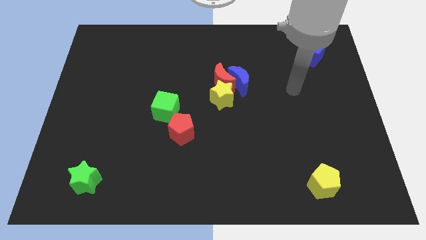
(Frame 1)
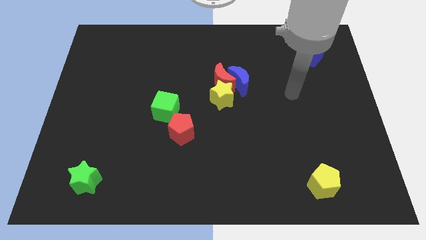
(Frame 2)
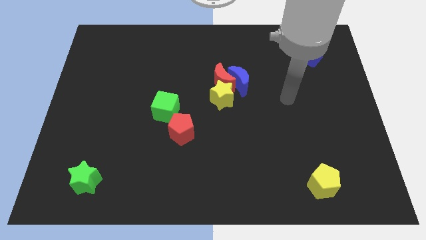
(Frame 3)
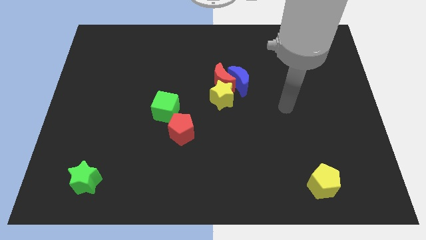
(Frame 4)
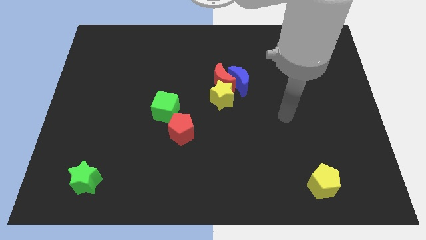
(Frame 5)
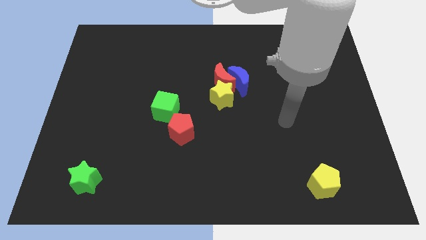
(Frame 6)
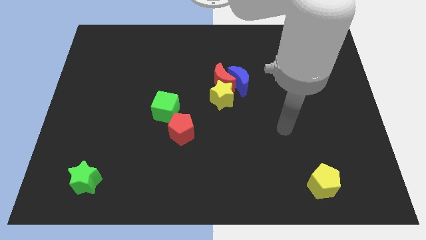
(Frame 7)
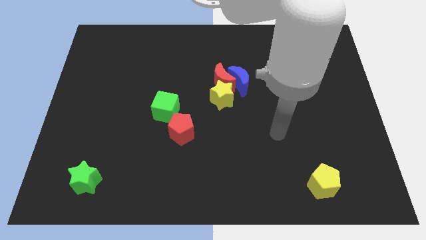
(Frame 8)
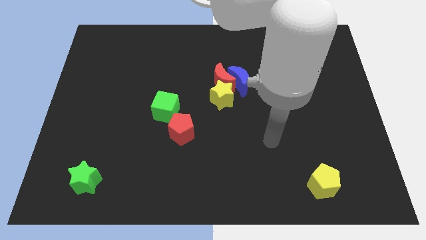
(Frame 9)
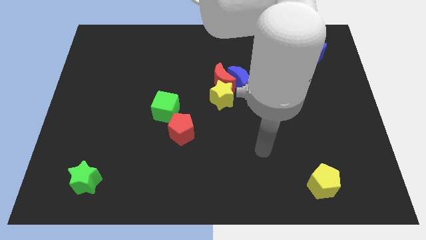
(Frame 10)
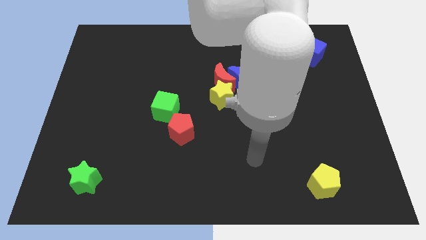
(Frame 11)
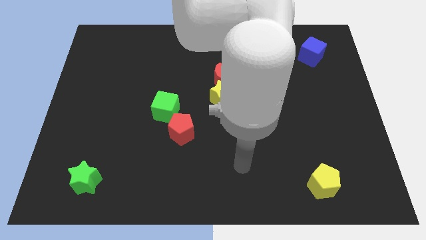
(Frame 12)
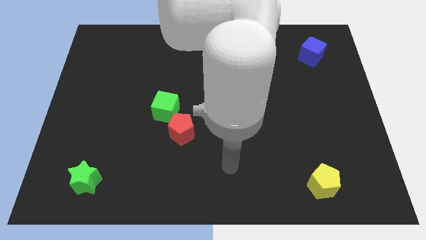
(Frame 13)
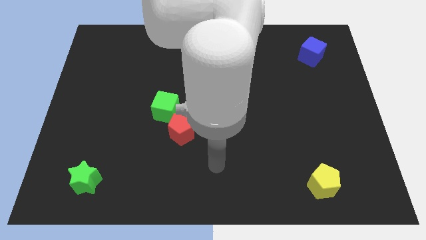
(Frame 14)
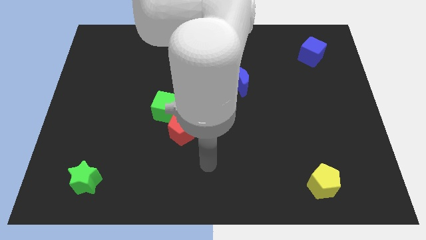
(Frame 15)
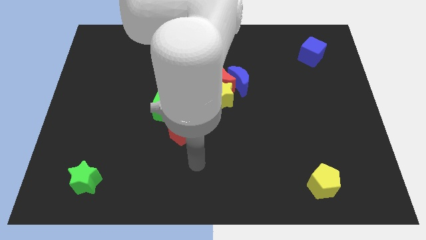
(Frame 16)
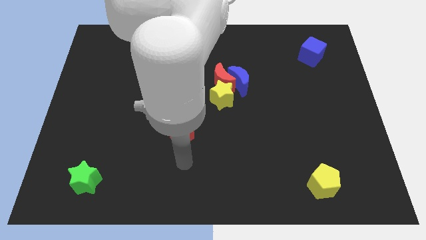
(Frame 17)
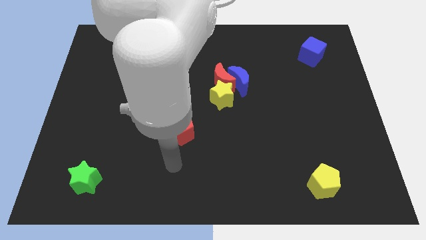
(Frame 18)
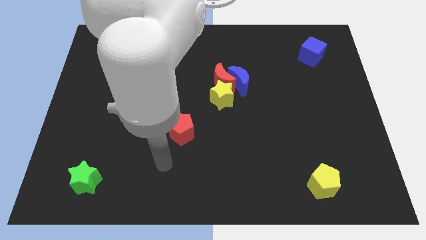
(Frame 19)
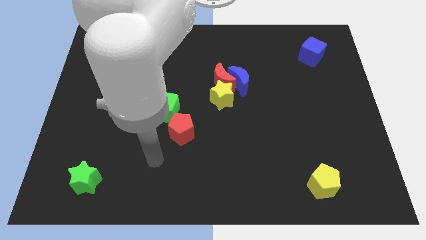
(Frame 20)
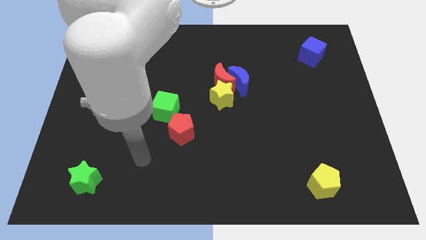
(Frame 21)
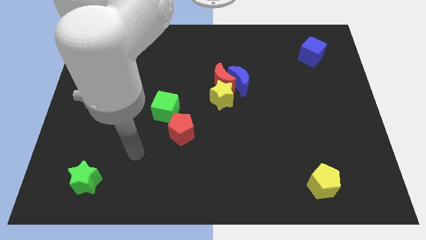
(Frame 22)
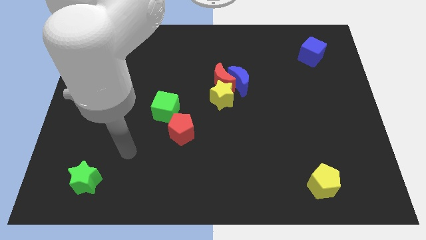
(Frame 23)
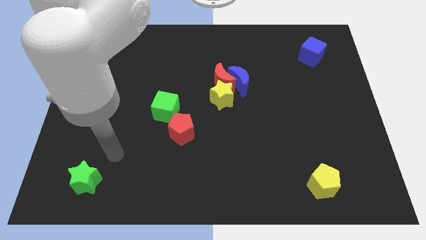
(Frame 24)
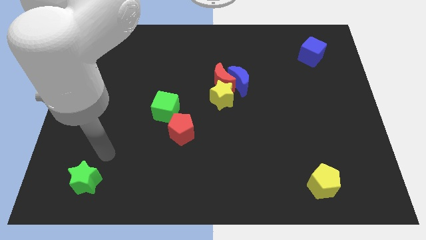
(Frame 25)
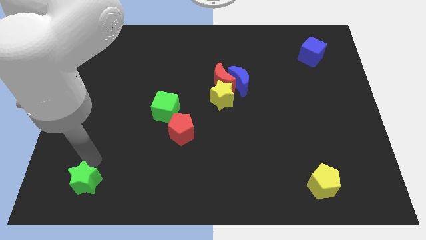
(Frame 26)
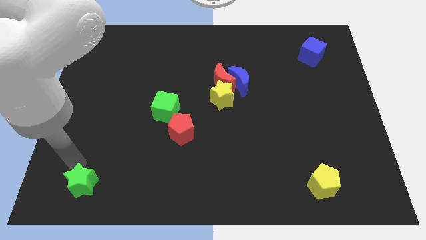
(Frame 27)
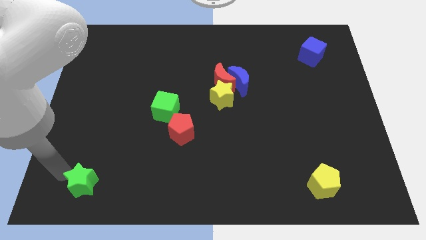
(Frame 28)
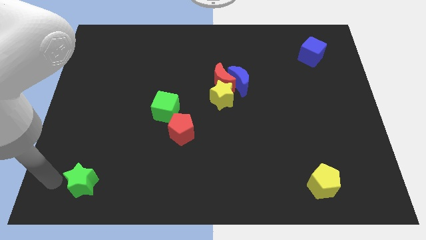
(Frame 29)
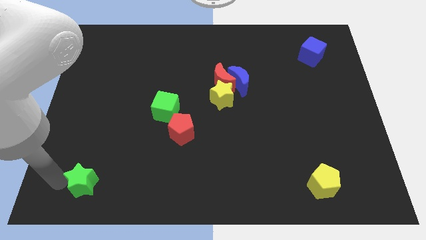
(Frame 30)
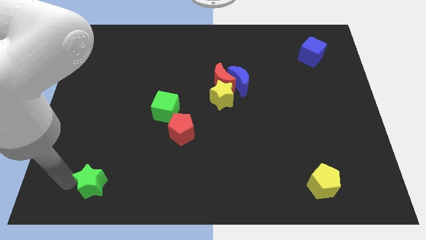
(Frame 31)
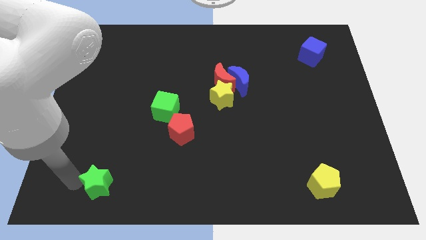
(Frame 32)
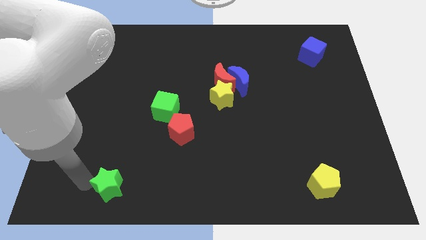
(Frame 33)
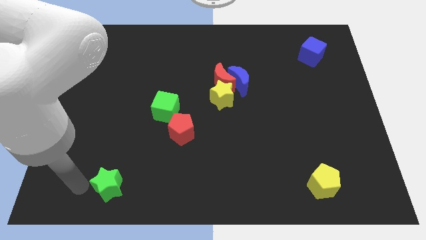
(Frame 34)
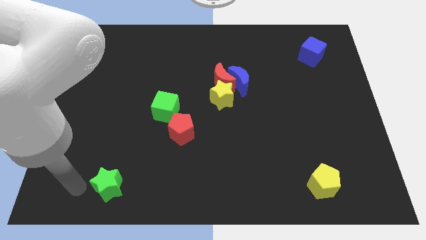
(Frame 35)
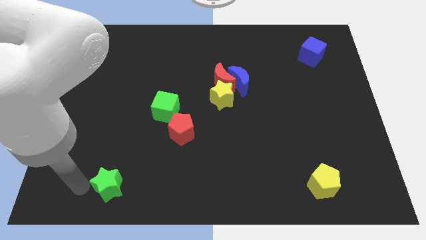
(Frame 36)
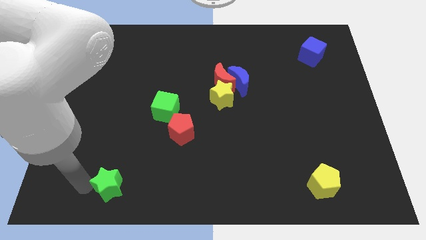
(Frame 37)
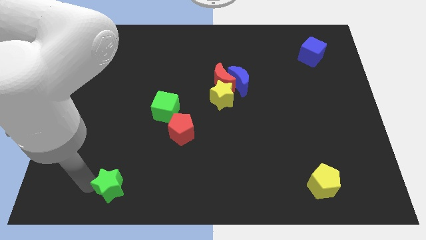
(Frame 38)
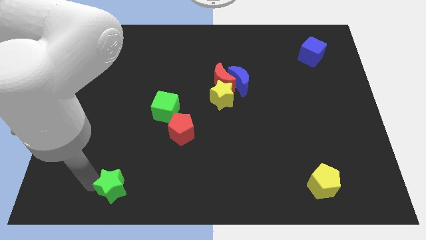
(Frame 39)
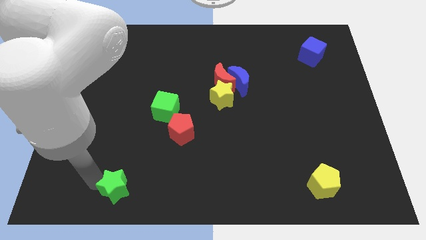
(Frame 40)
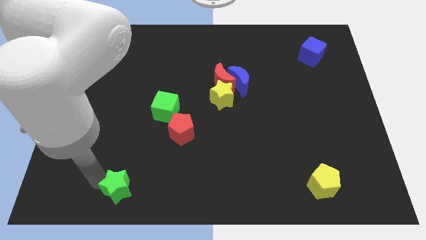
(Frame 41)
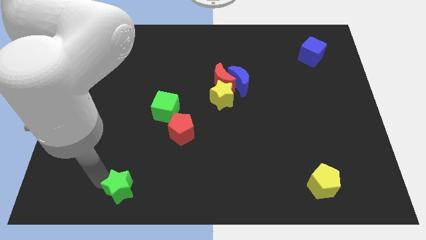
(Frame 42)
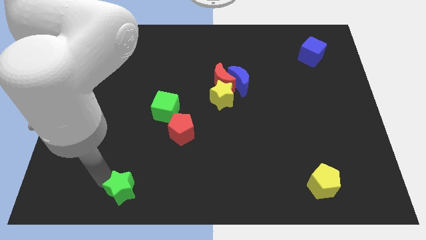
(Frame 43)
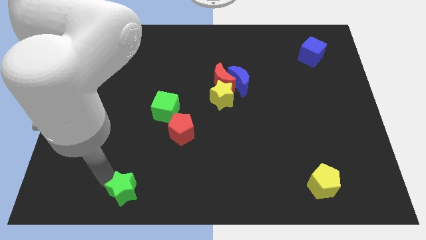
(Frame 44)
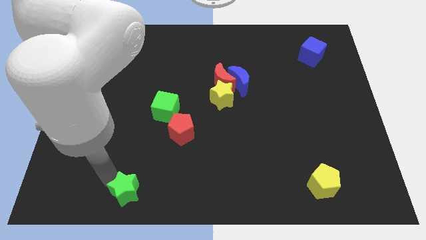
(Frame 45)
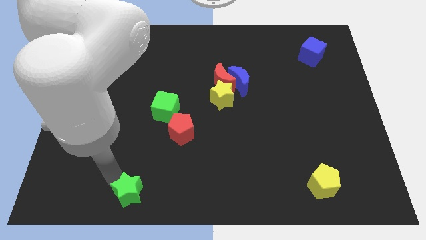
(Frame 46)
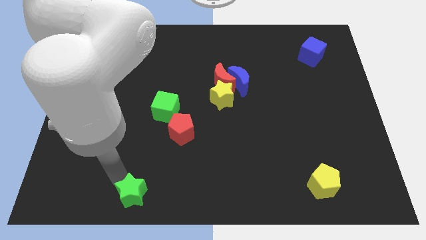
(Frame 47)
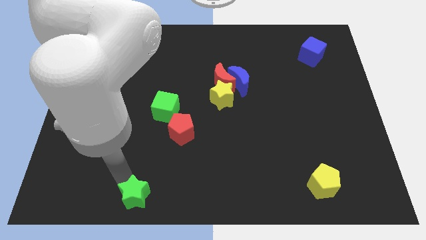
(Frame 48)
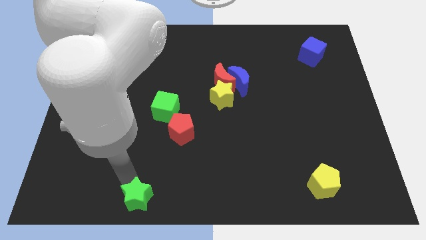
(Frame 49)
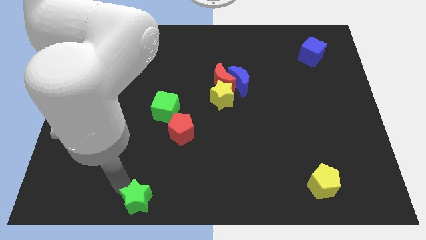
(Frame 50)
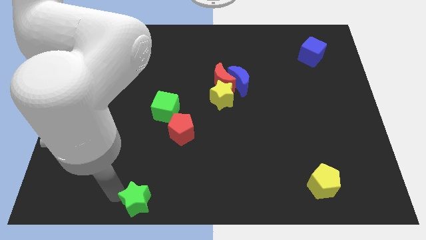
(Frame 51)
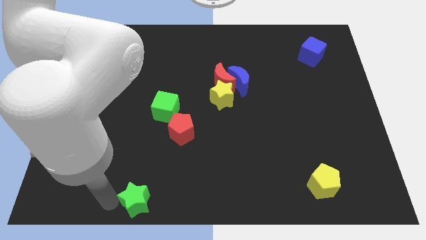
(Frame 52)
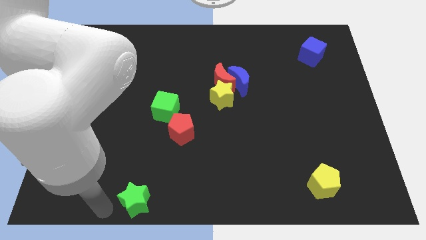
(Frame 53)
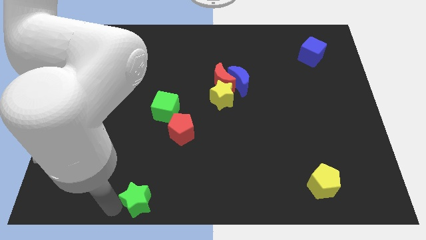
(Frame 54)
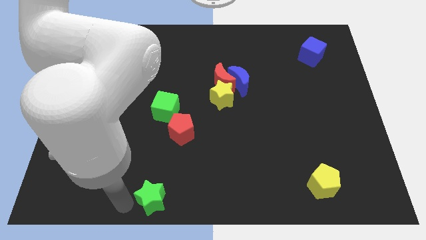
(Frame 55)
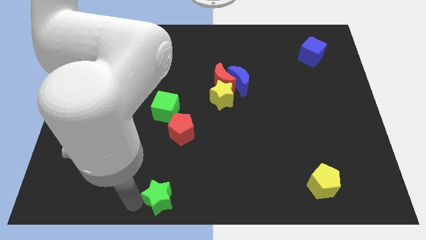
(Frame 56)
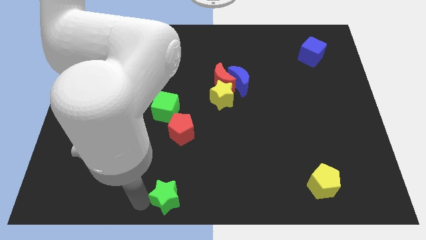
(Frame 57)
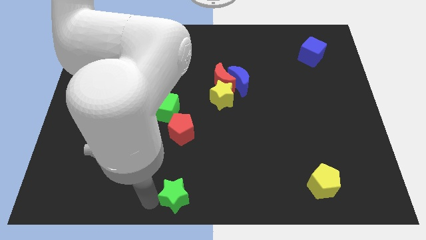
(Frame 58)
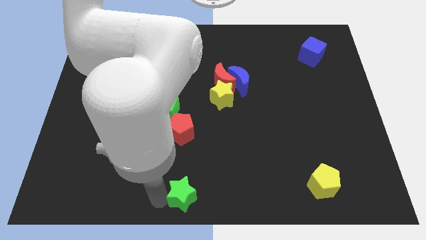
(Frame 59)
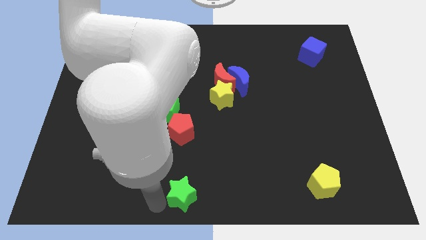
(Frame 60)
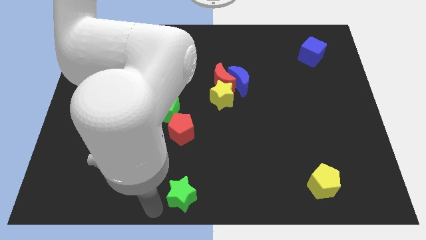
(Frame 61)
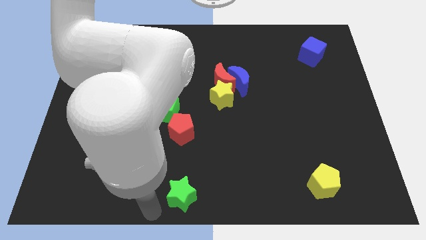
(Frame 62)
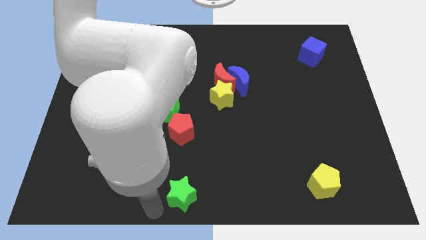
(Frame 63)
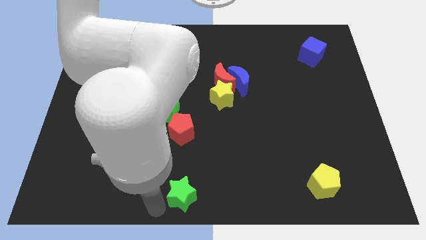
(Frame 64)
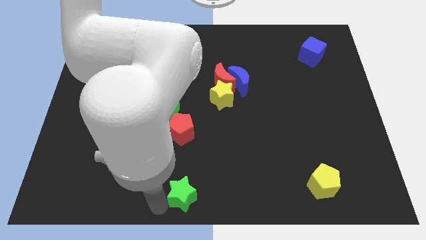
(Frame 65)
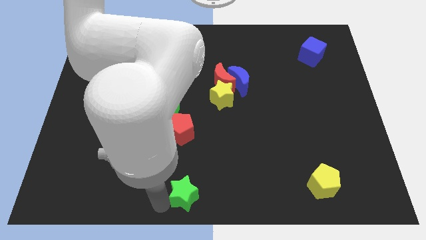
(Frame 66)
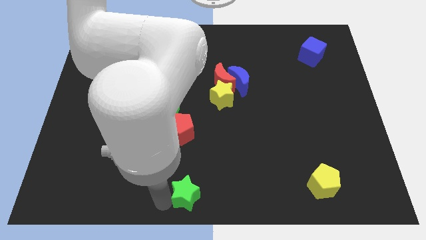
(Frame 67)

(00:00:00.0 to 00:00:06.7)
push the green star right

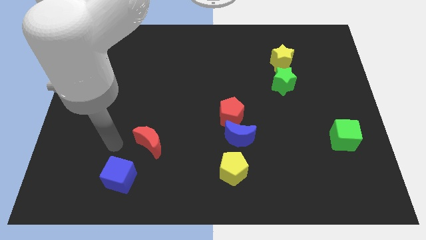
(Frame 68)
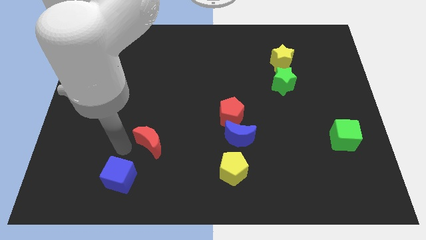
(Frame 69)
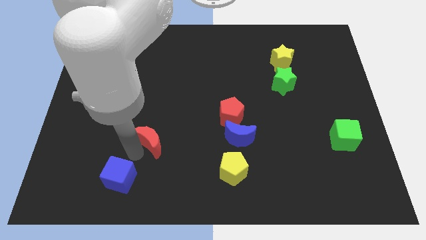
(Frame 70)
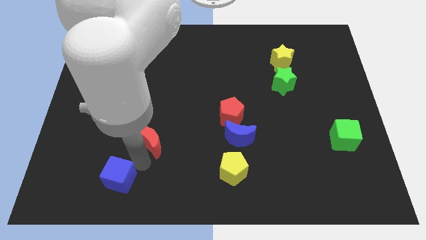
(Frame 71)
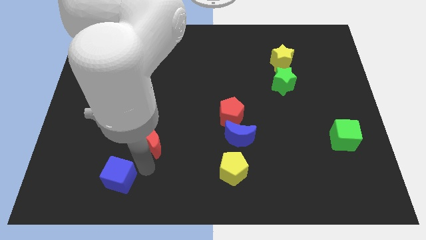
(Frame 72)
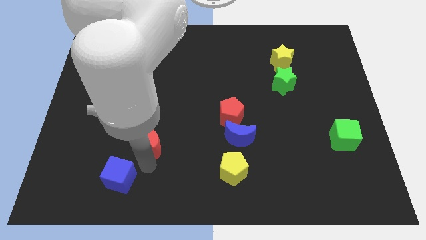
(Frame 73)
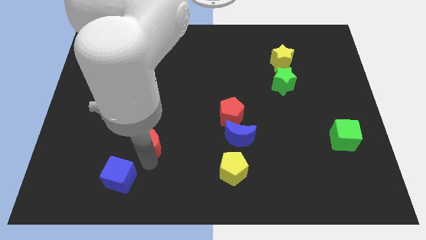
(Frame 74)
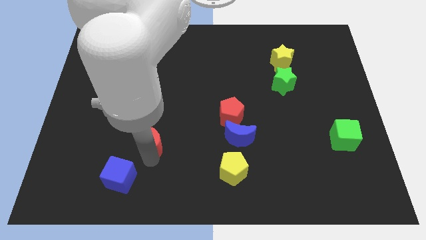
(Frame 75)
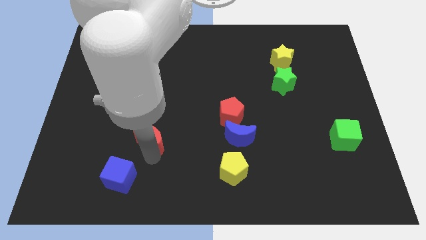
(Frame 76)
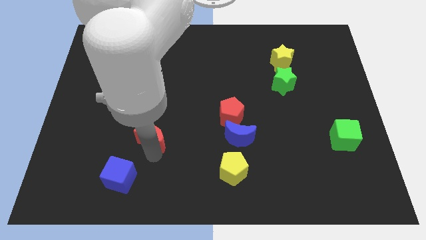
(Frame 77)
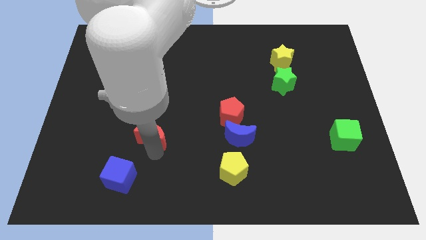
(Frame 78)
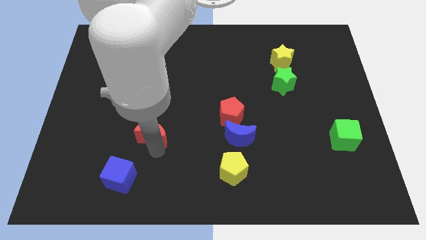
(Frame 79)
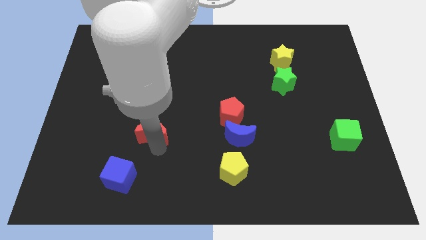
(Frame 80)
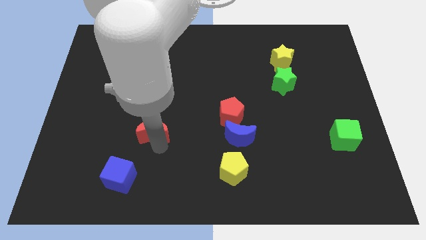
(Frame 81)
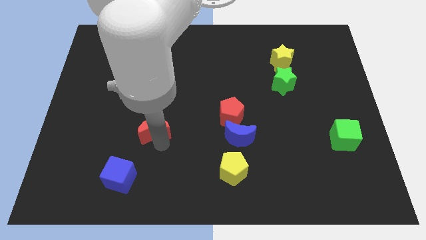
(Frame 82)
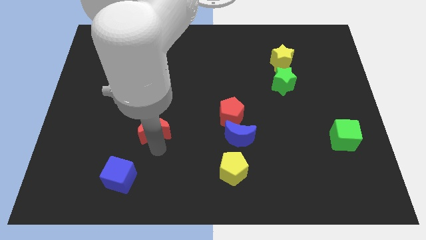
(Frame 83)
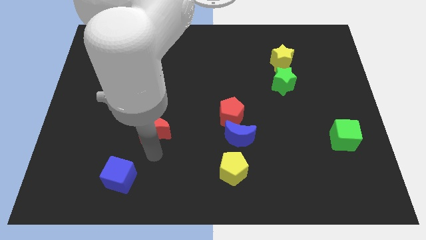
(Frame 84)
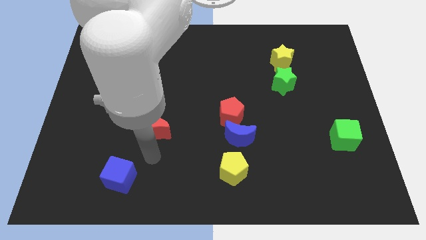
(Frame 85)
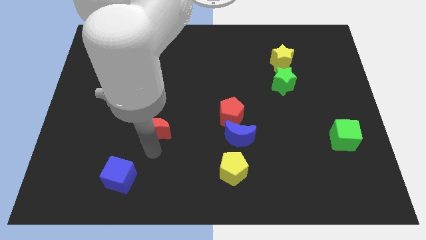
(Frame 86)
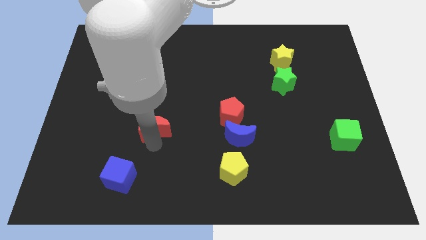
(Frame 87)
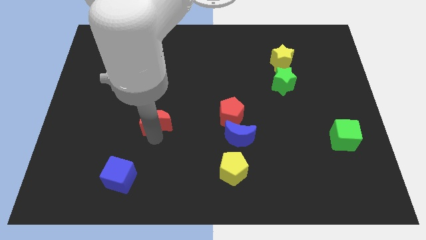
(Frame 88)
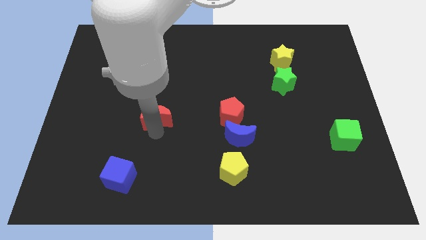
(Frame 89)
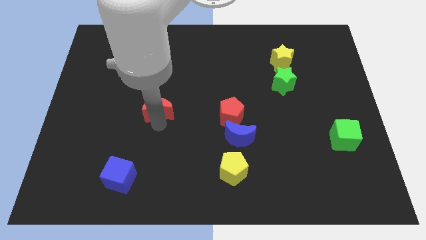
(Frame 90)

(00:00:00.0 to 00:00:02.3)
slightly move the red moon upwards
